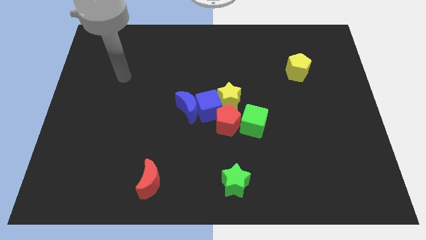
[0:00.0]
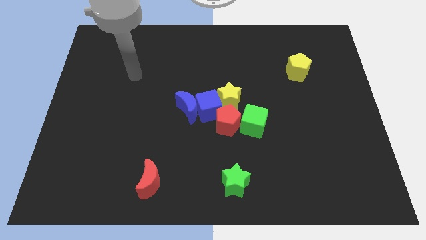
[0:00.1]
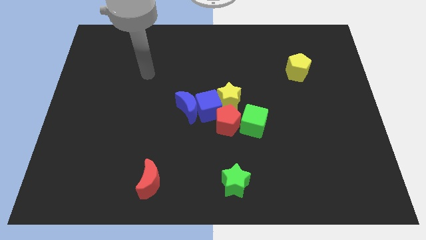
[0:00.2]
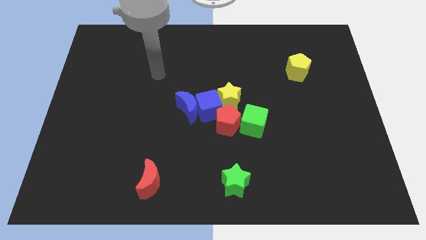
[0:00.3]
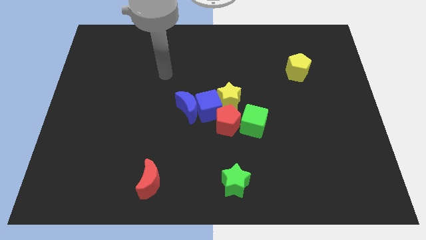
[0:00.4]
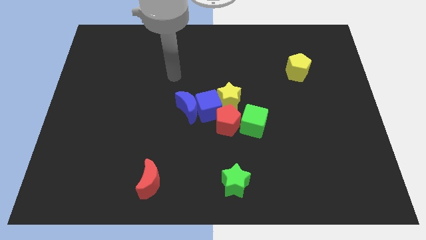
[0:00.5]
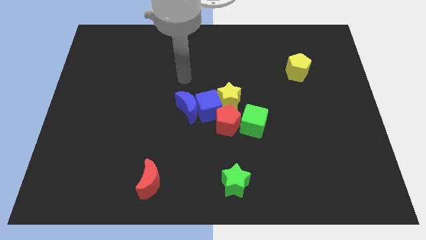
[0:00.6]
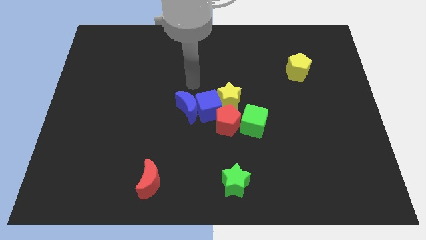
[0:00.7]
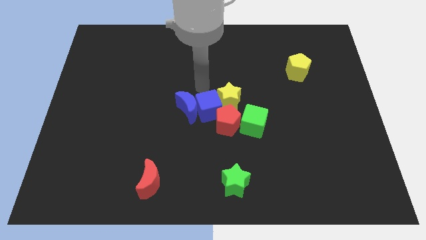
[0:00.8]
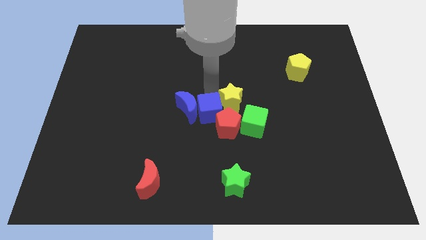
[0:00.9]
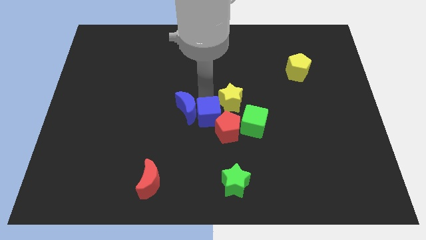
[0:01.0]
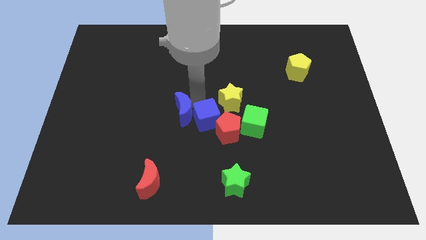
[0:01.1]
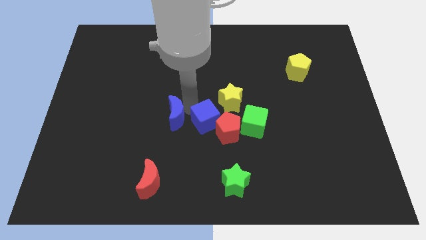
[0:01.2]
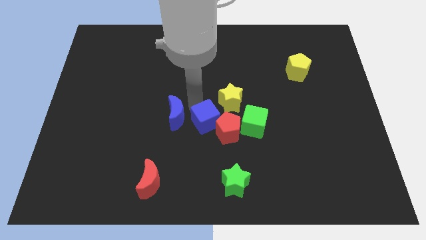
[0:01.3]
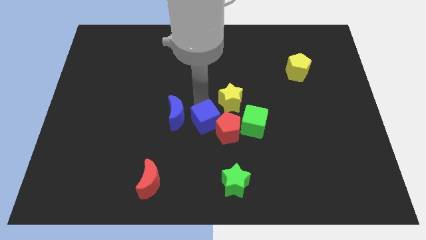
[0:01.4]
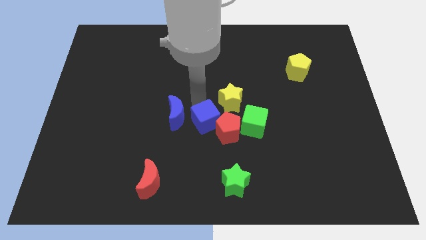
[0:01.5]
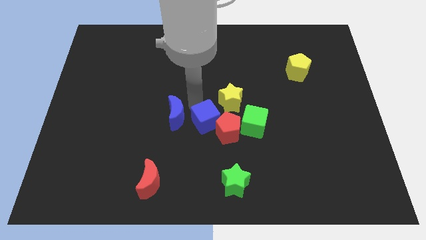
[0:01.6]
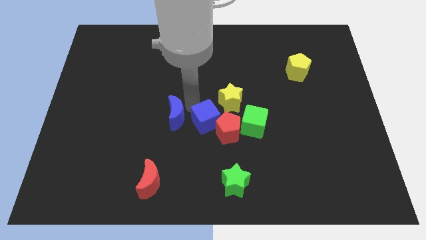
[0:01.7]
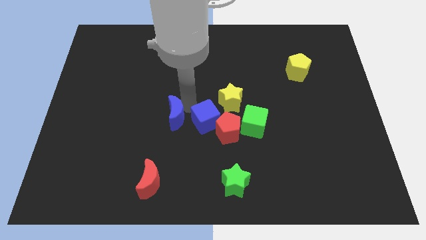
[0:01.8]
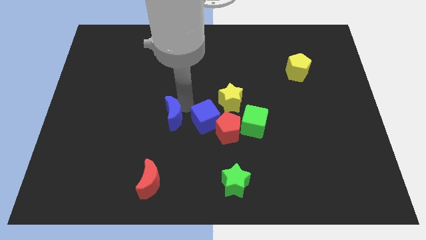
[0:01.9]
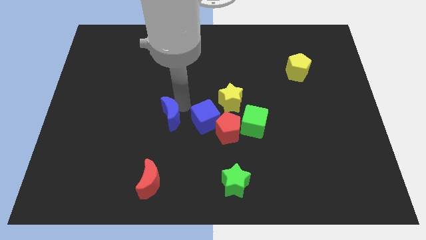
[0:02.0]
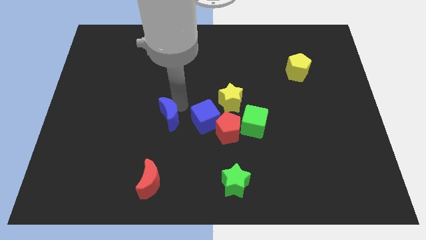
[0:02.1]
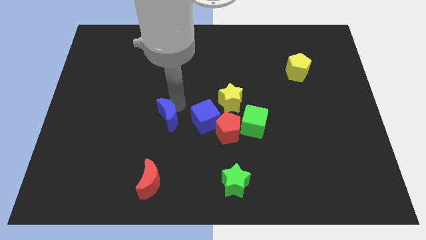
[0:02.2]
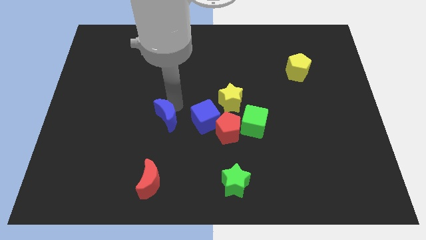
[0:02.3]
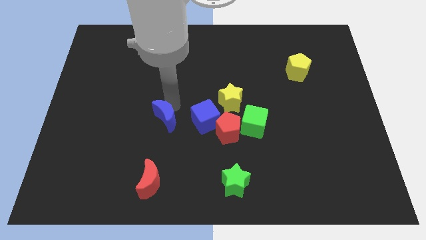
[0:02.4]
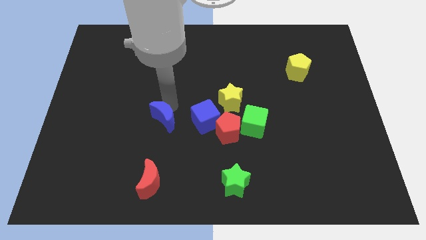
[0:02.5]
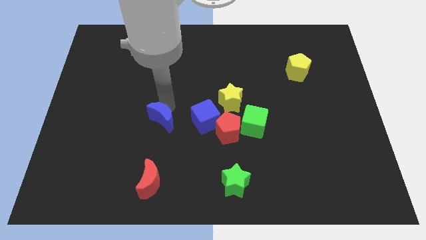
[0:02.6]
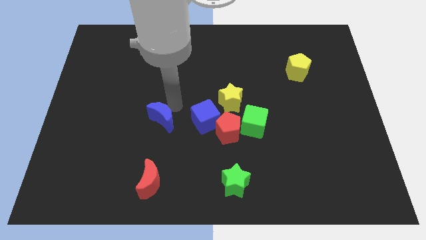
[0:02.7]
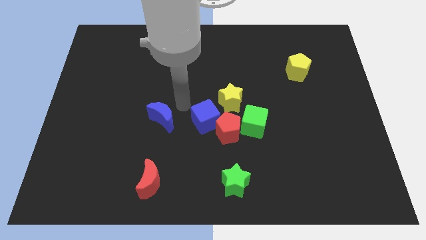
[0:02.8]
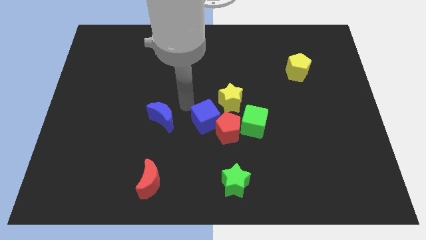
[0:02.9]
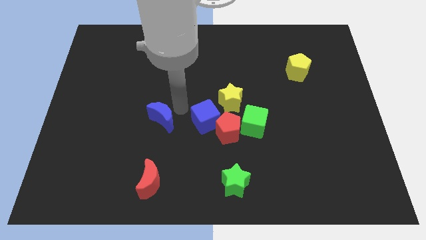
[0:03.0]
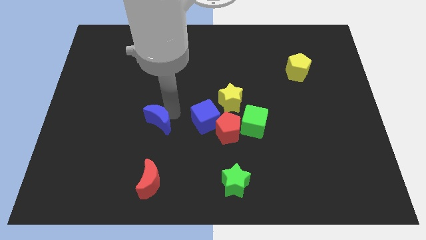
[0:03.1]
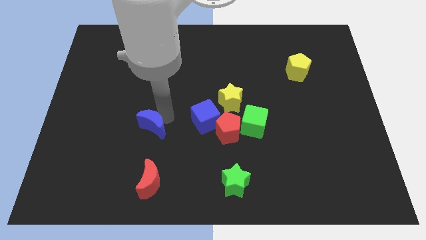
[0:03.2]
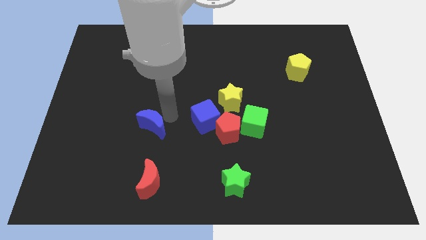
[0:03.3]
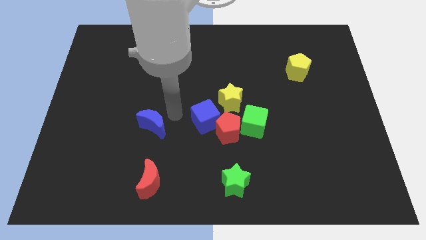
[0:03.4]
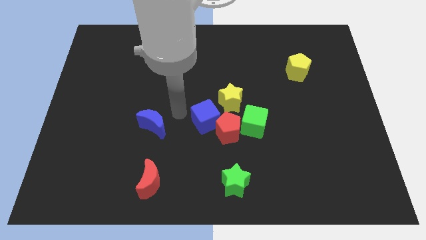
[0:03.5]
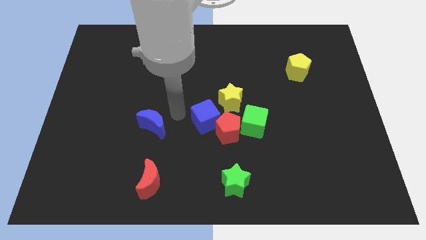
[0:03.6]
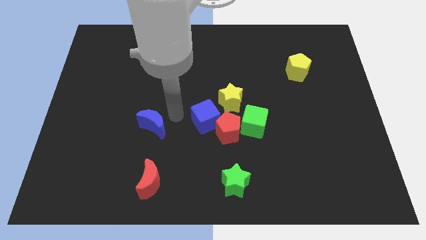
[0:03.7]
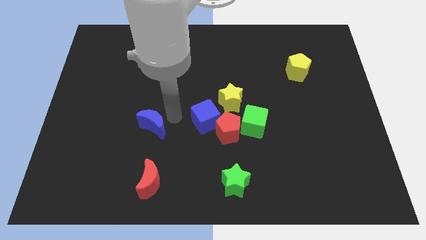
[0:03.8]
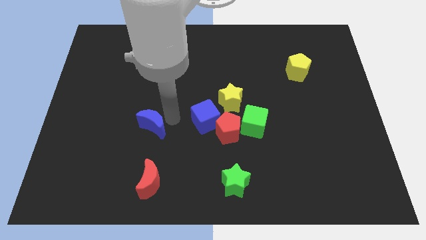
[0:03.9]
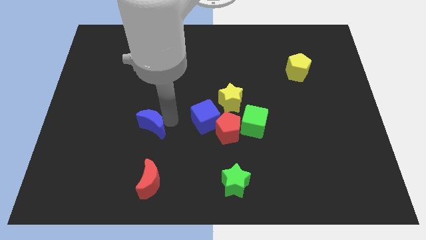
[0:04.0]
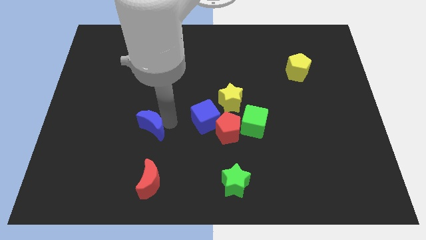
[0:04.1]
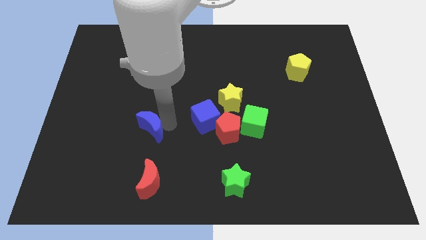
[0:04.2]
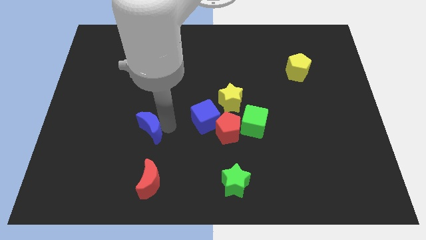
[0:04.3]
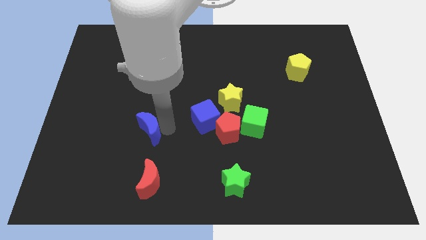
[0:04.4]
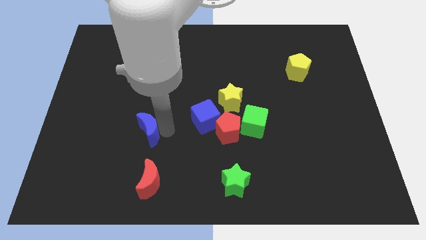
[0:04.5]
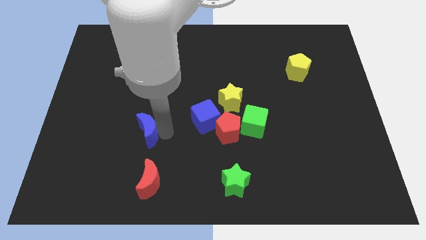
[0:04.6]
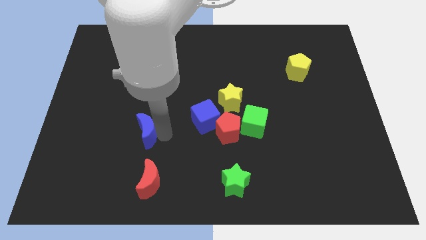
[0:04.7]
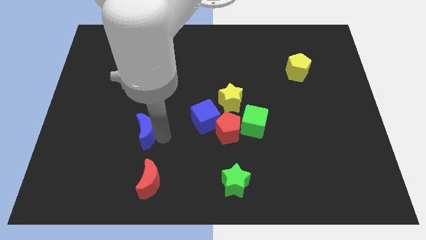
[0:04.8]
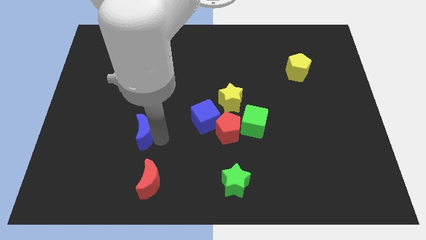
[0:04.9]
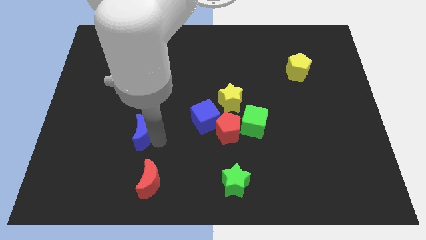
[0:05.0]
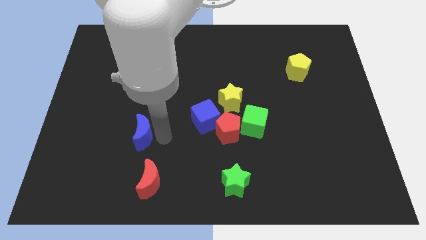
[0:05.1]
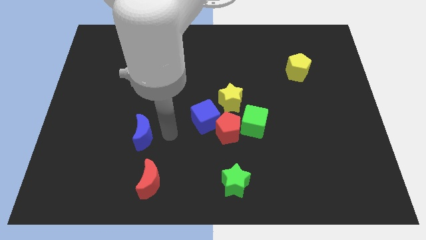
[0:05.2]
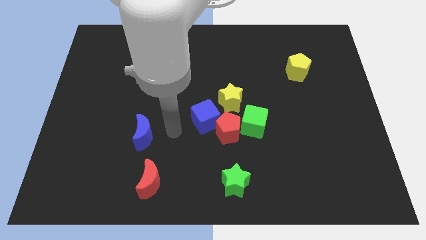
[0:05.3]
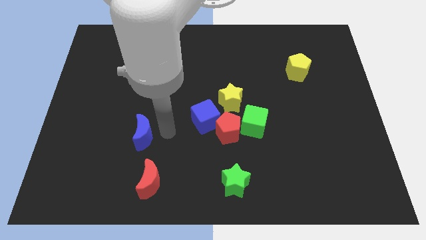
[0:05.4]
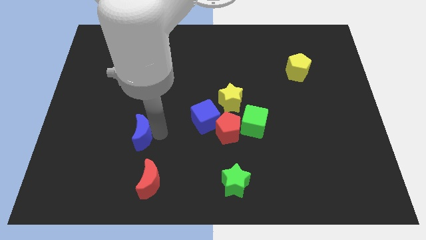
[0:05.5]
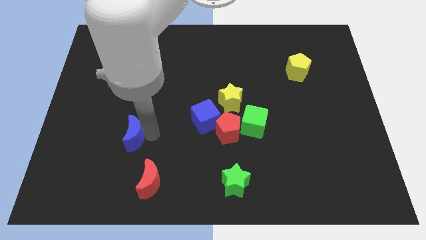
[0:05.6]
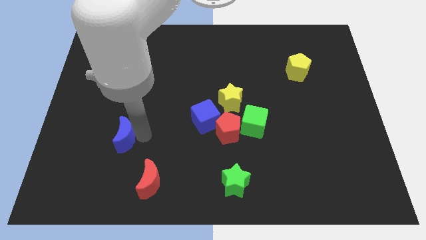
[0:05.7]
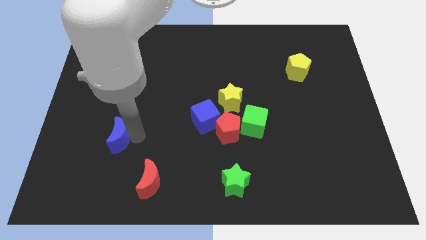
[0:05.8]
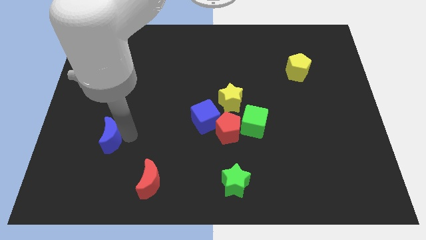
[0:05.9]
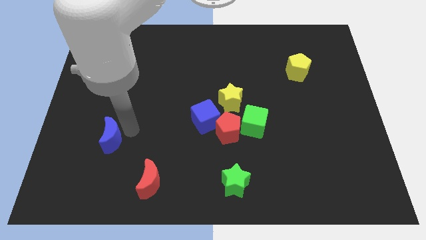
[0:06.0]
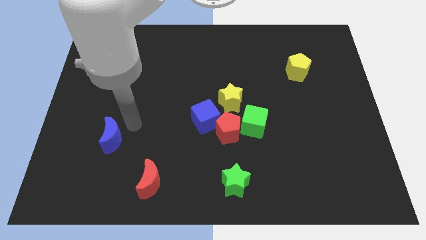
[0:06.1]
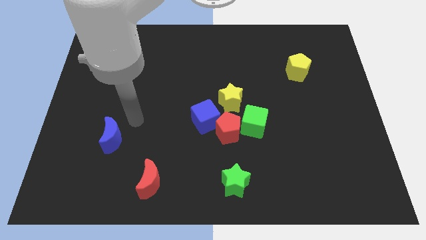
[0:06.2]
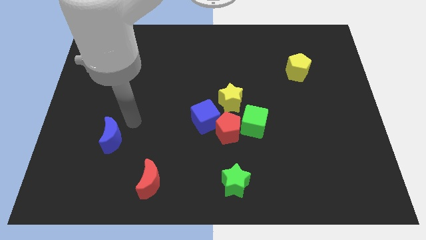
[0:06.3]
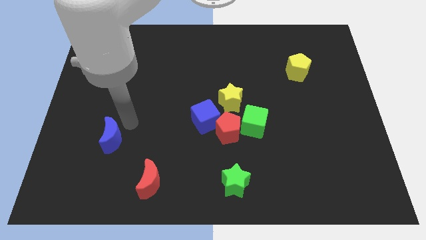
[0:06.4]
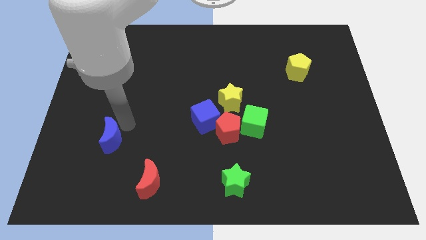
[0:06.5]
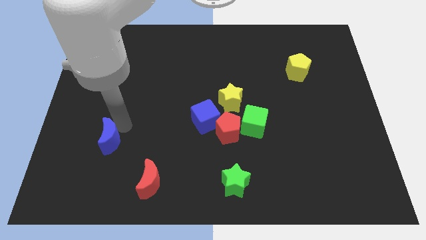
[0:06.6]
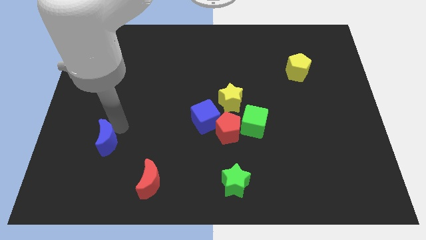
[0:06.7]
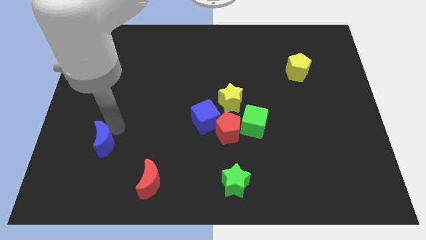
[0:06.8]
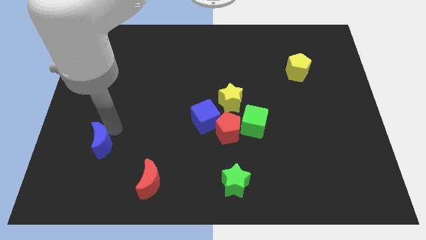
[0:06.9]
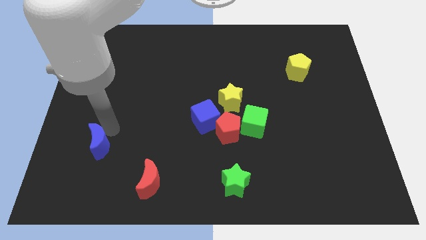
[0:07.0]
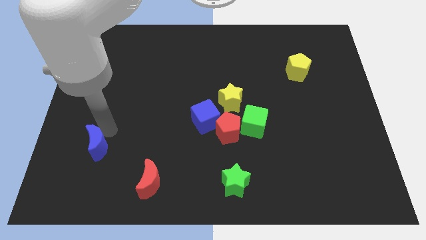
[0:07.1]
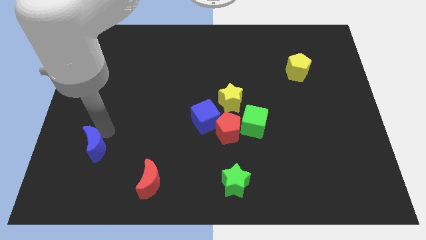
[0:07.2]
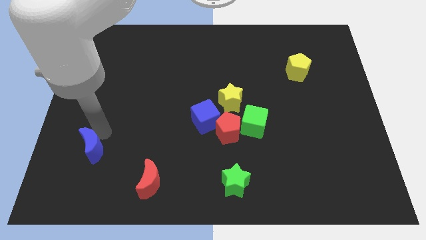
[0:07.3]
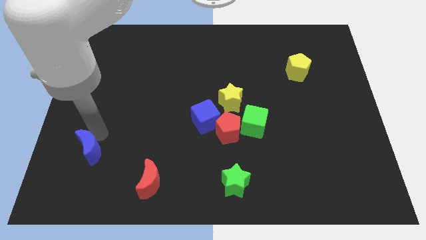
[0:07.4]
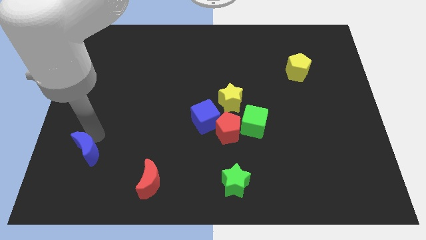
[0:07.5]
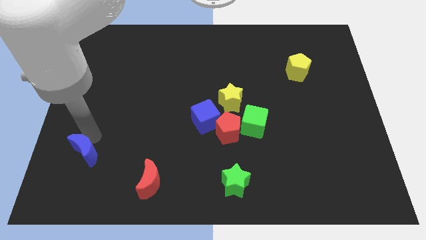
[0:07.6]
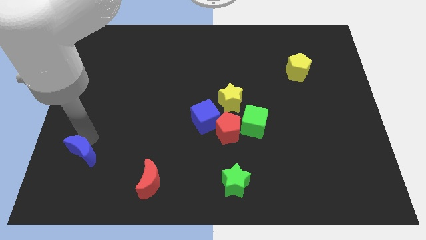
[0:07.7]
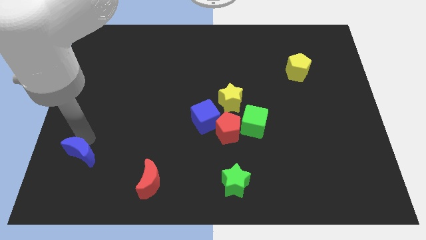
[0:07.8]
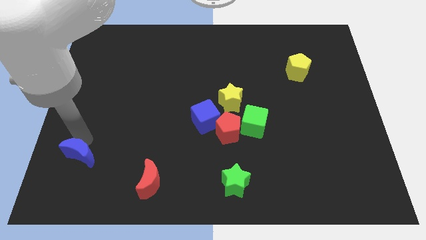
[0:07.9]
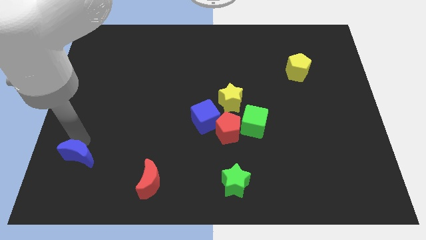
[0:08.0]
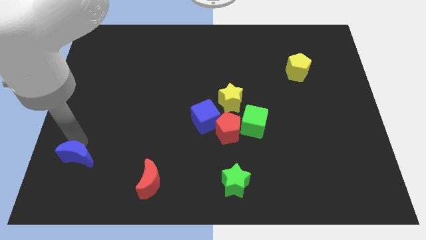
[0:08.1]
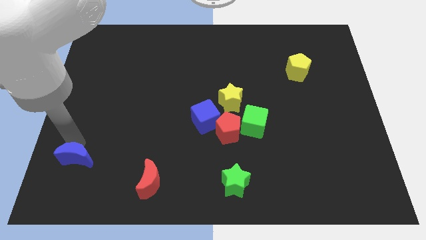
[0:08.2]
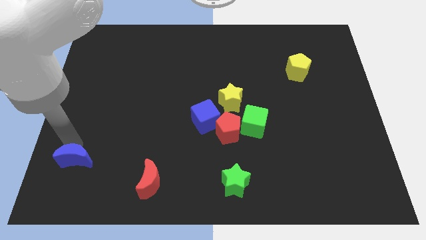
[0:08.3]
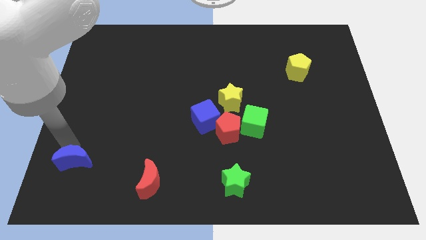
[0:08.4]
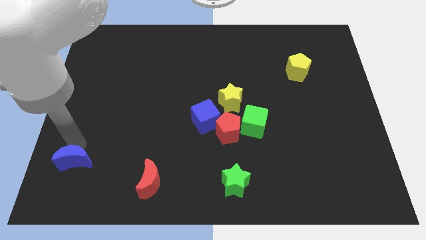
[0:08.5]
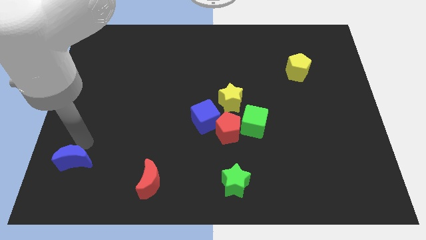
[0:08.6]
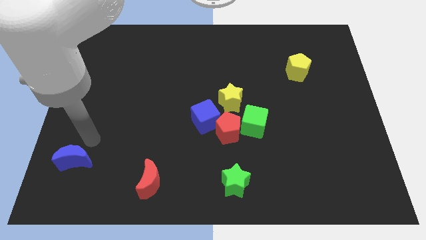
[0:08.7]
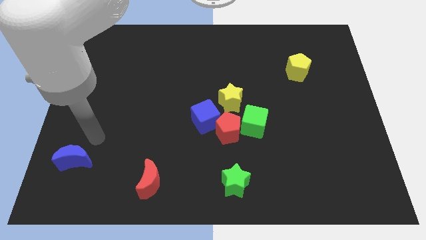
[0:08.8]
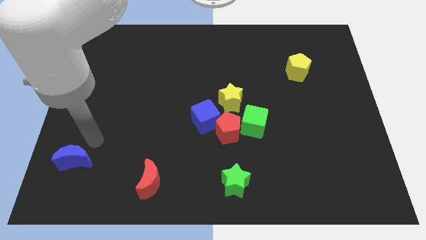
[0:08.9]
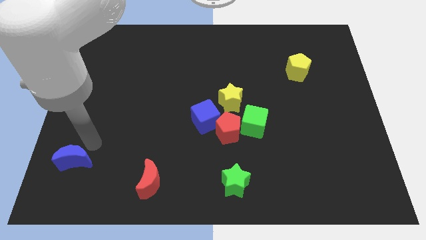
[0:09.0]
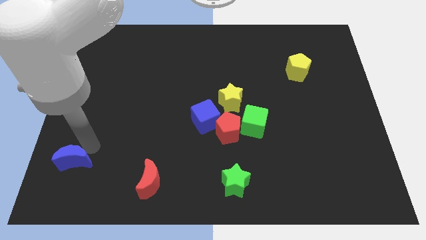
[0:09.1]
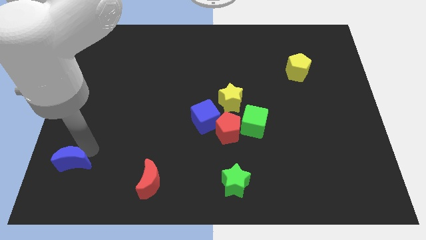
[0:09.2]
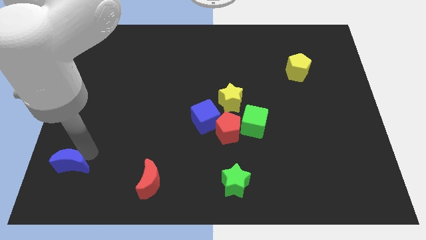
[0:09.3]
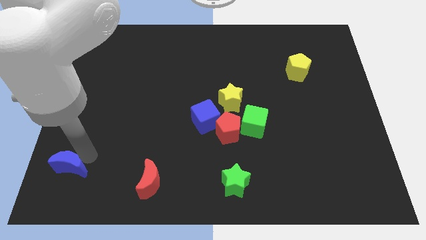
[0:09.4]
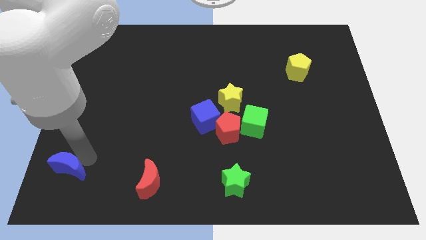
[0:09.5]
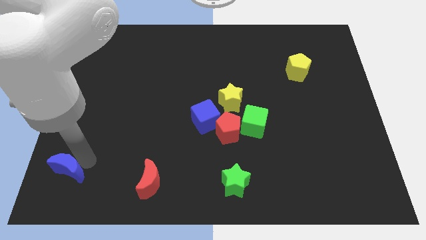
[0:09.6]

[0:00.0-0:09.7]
slide the blue moon to the bottom left corner
